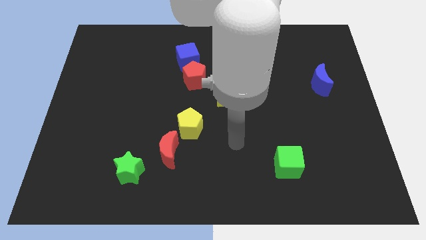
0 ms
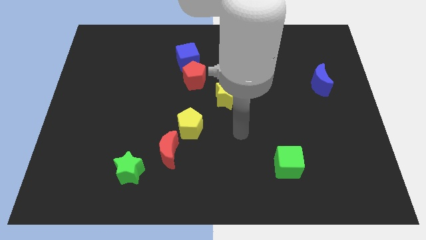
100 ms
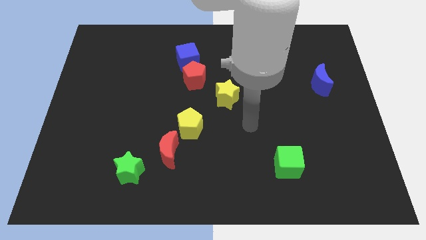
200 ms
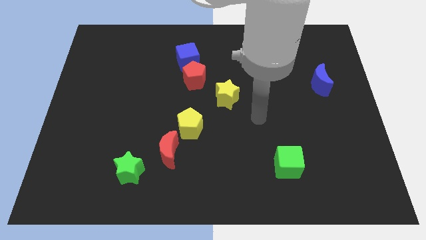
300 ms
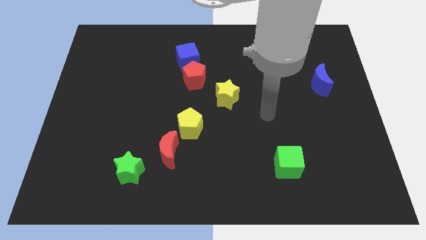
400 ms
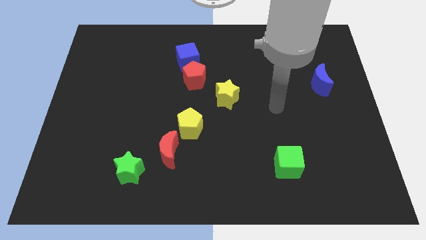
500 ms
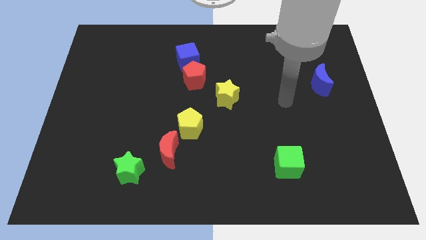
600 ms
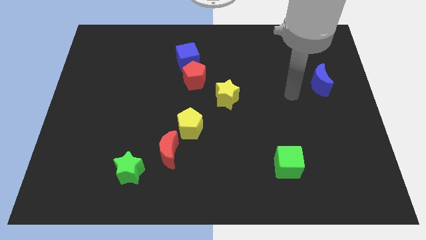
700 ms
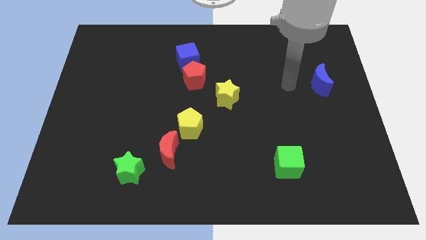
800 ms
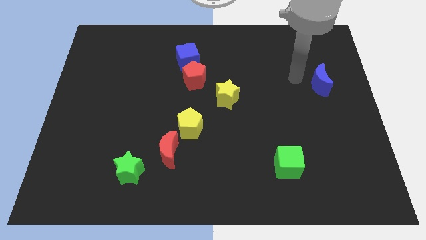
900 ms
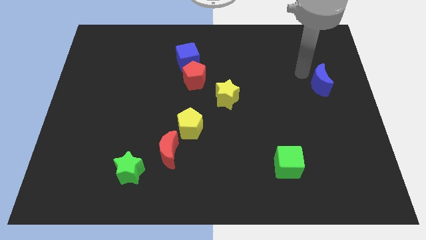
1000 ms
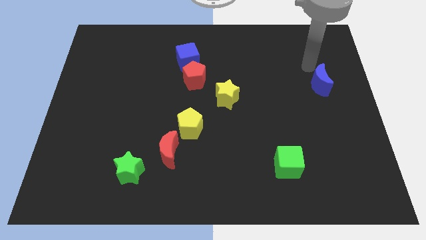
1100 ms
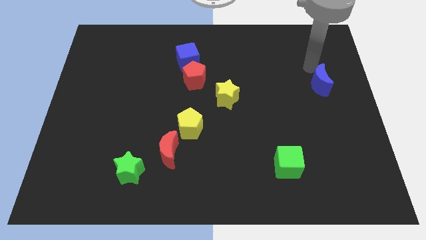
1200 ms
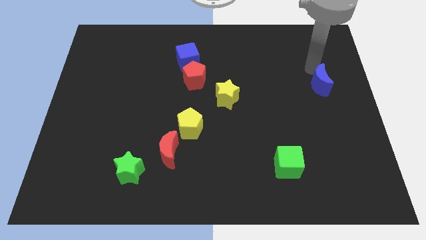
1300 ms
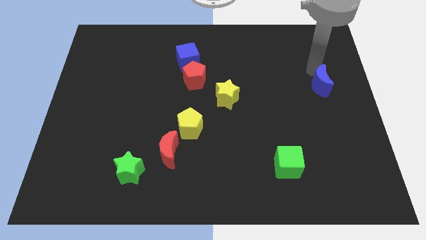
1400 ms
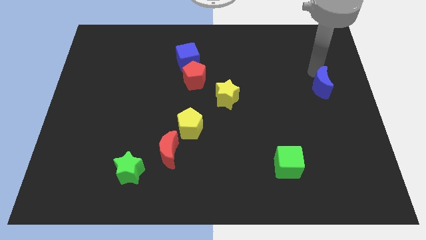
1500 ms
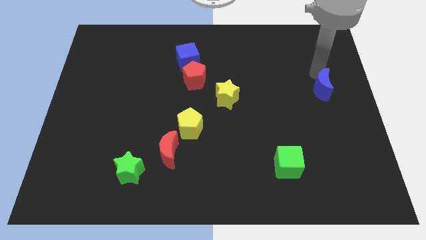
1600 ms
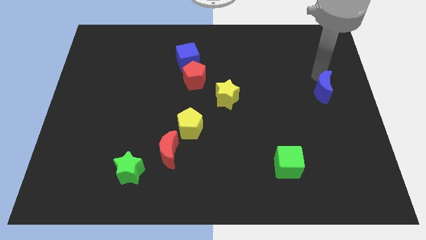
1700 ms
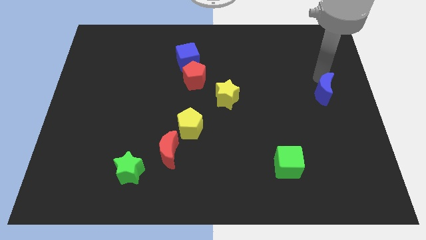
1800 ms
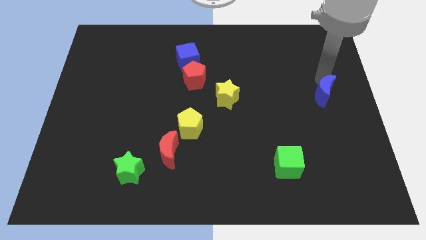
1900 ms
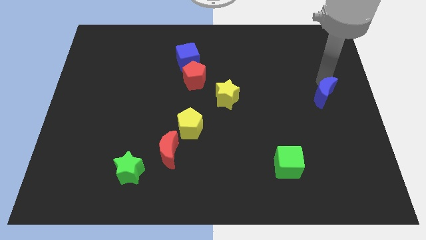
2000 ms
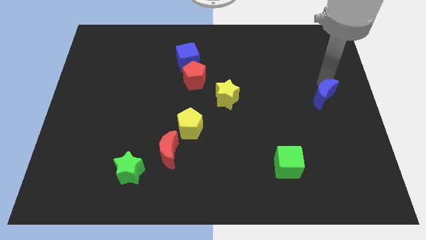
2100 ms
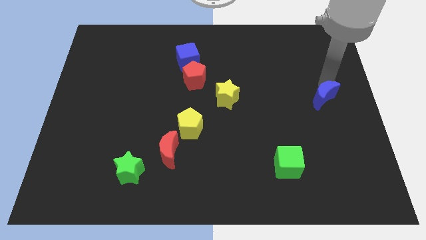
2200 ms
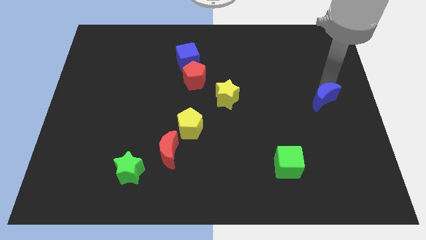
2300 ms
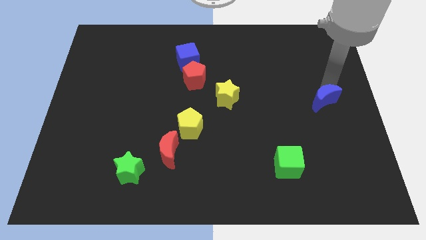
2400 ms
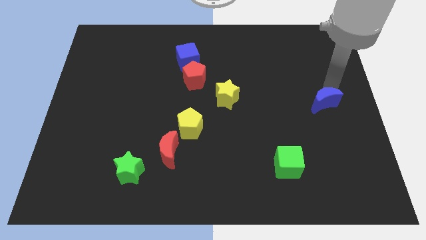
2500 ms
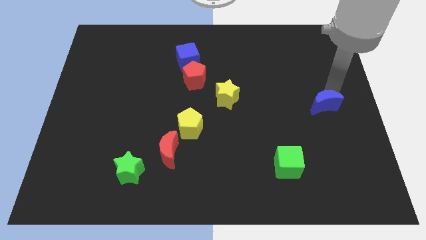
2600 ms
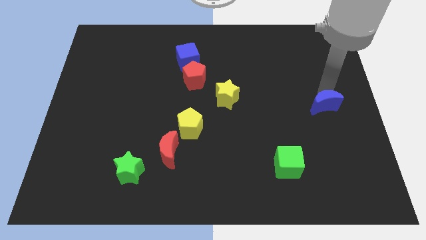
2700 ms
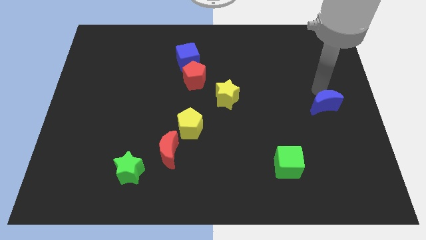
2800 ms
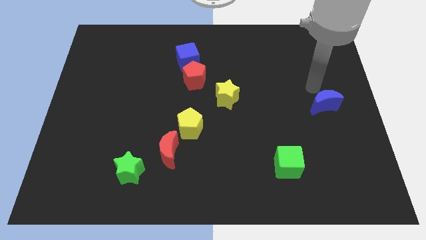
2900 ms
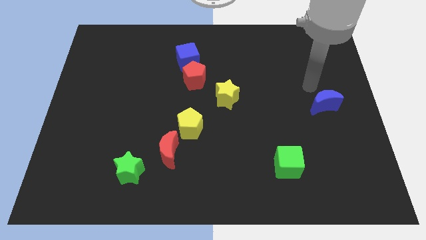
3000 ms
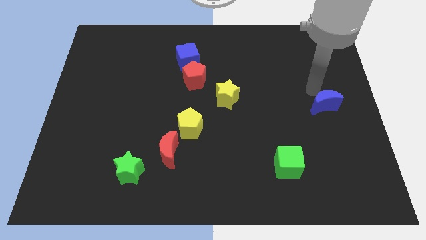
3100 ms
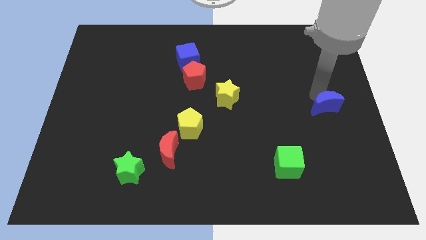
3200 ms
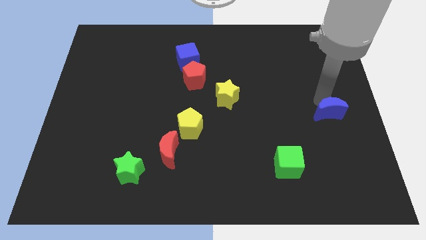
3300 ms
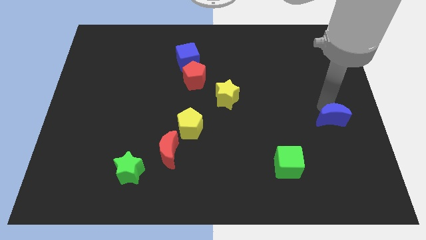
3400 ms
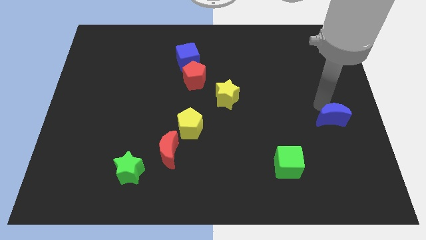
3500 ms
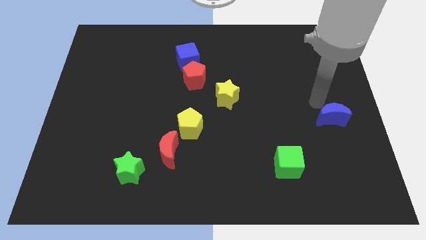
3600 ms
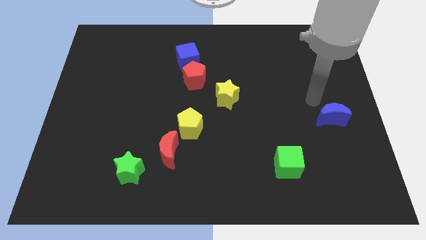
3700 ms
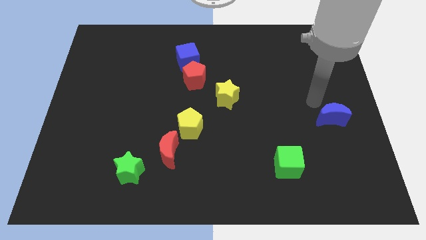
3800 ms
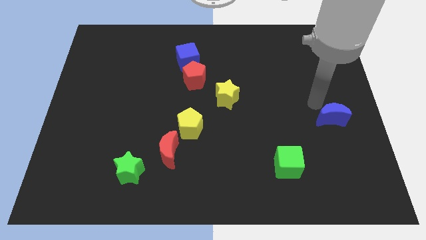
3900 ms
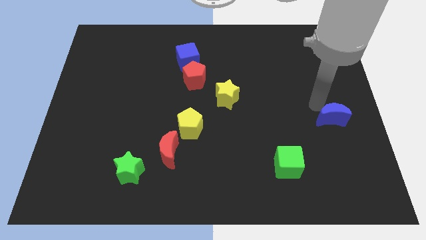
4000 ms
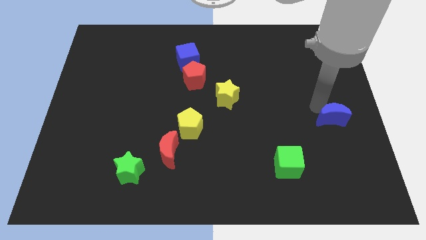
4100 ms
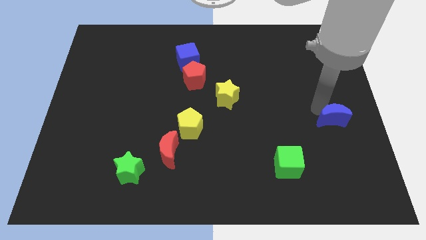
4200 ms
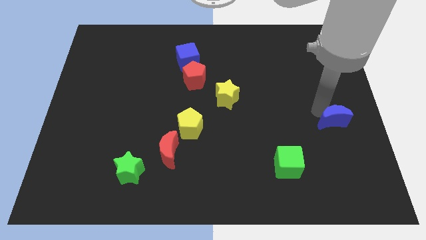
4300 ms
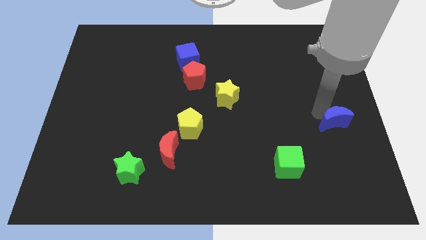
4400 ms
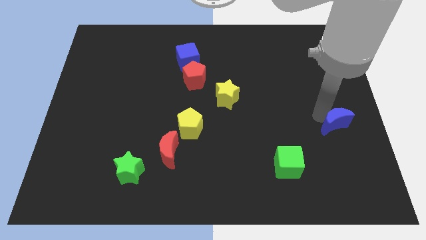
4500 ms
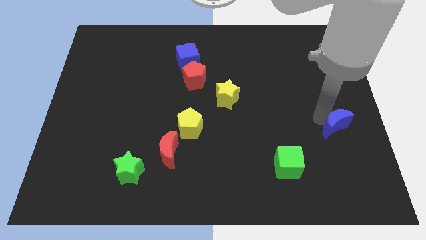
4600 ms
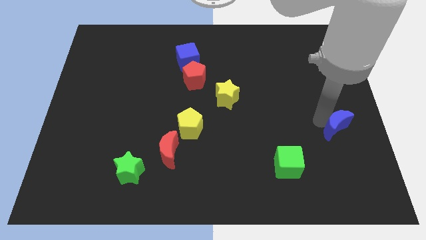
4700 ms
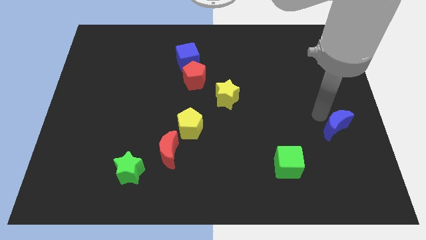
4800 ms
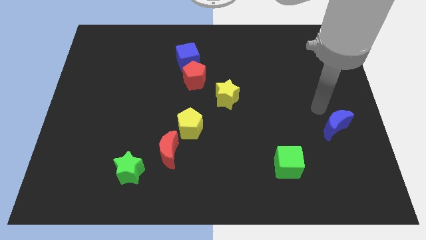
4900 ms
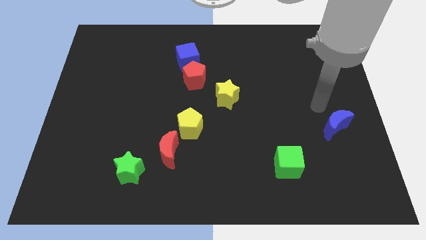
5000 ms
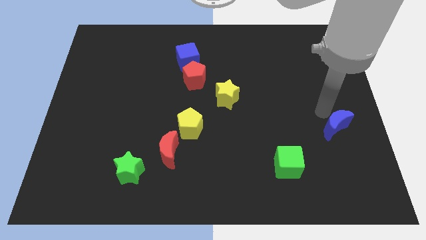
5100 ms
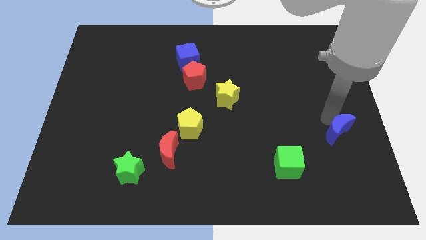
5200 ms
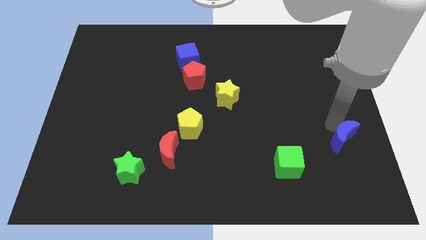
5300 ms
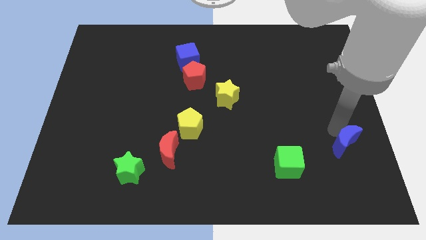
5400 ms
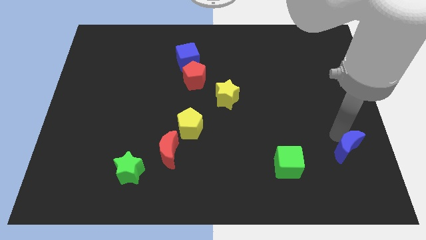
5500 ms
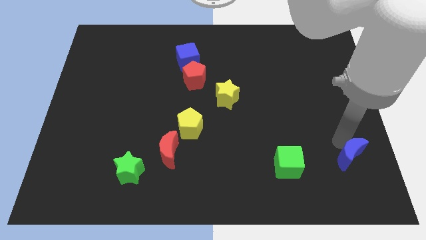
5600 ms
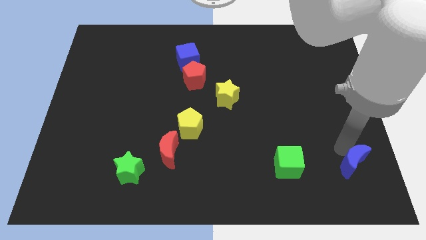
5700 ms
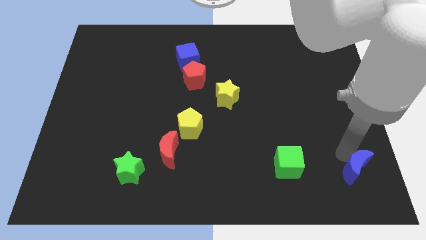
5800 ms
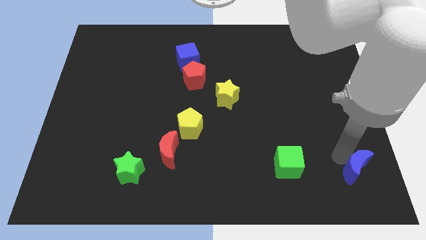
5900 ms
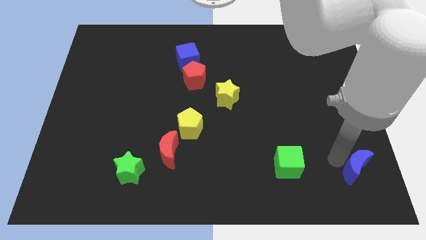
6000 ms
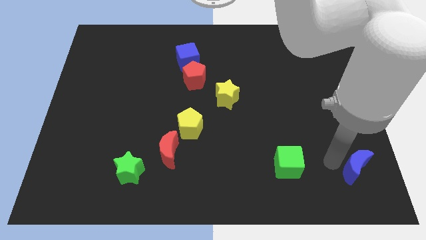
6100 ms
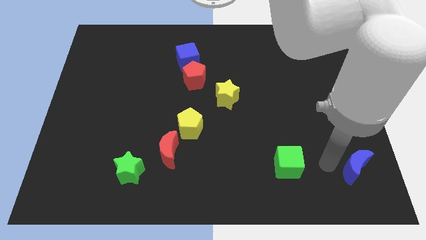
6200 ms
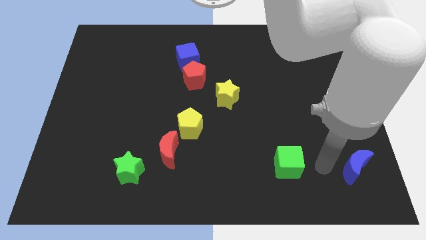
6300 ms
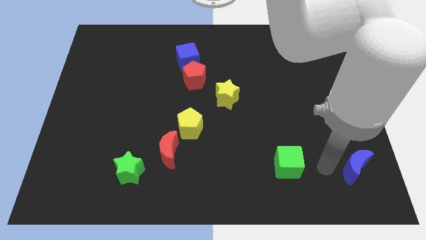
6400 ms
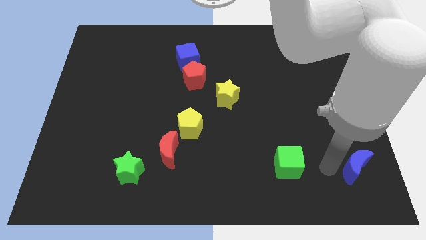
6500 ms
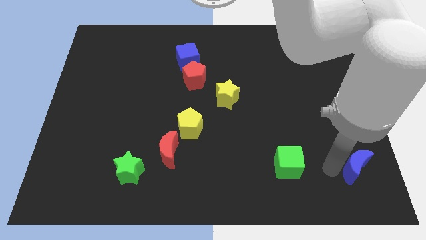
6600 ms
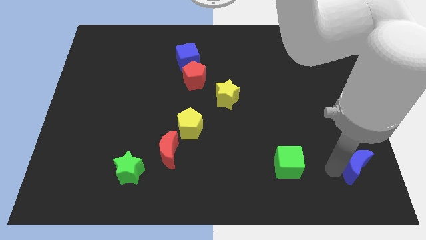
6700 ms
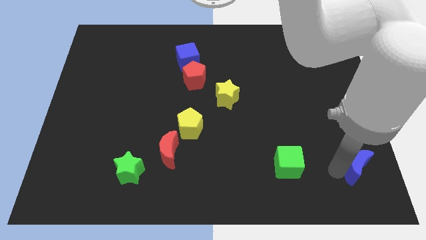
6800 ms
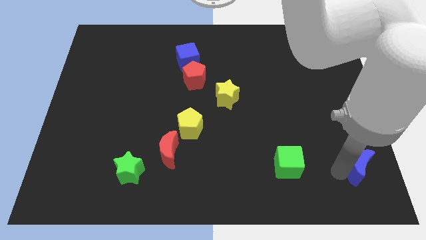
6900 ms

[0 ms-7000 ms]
move the blue moon to the lower right corner
